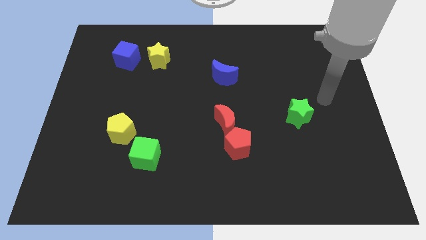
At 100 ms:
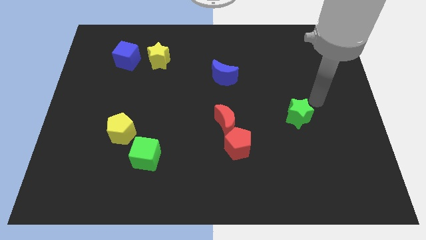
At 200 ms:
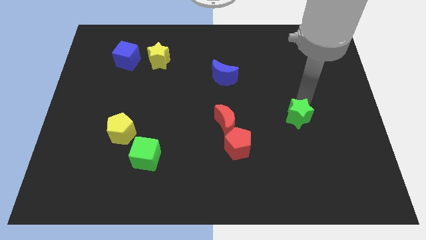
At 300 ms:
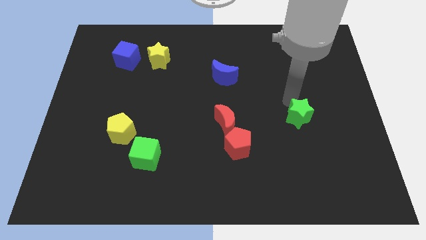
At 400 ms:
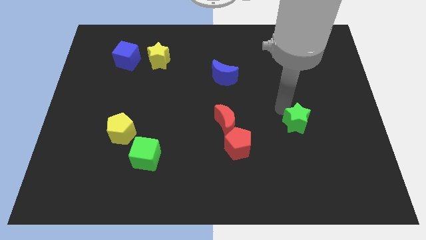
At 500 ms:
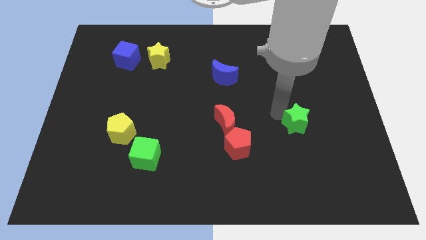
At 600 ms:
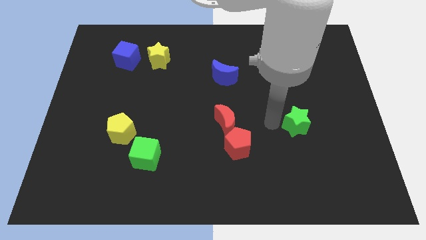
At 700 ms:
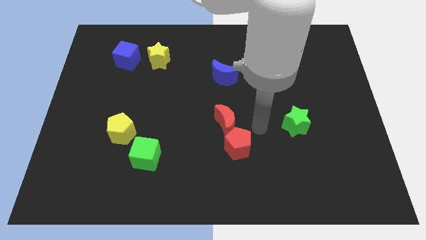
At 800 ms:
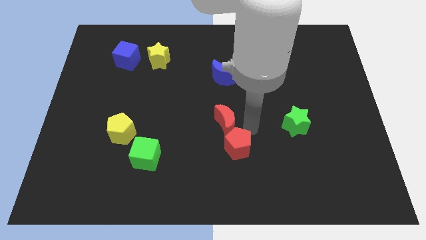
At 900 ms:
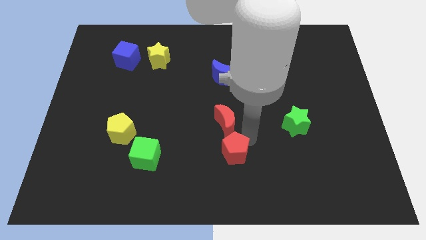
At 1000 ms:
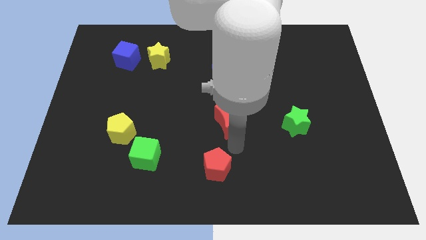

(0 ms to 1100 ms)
move the red moon away from the red pentagon

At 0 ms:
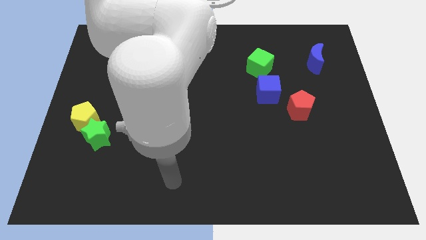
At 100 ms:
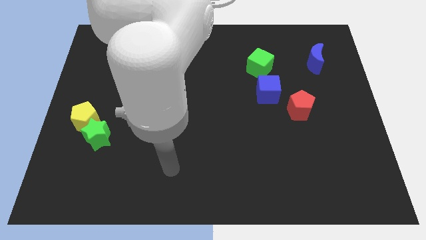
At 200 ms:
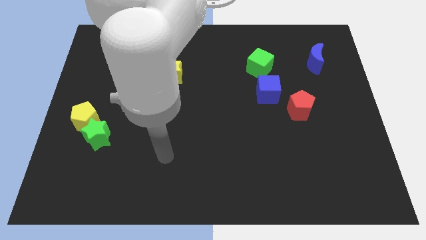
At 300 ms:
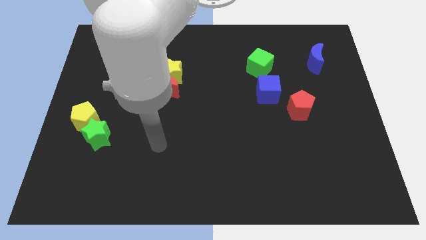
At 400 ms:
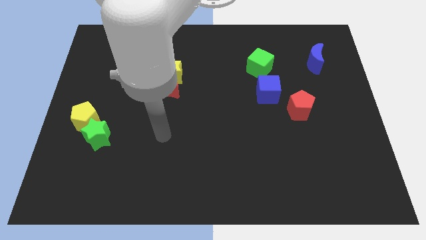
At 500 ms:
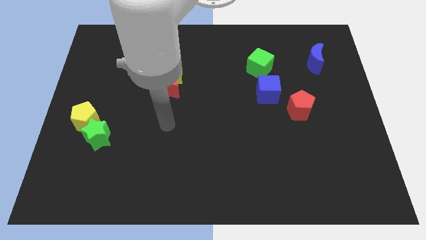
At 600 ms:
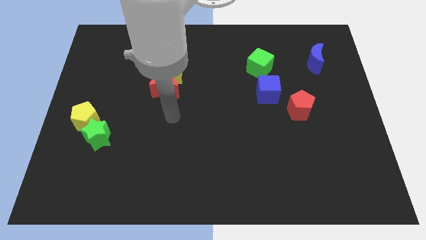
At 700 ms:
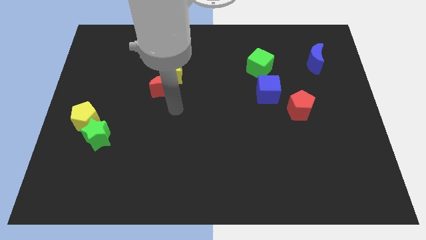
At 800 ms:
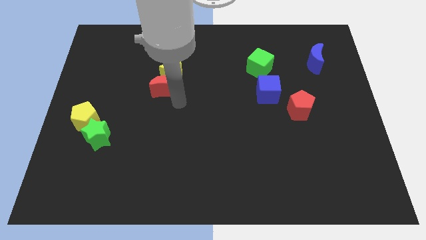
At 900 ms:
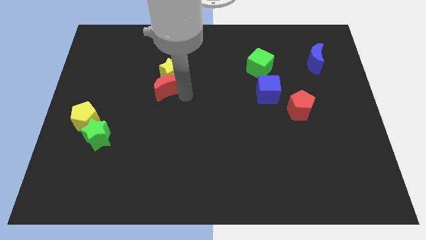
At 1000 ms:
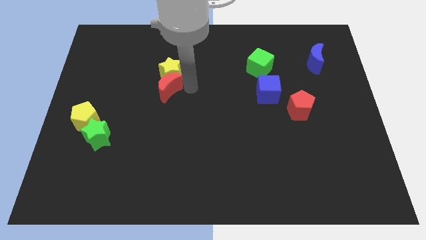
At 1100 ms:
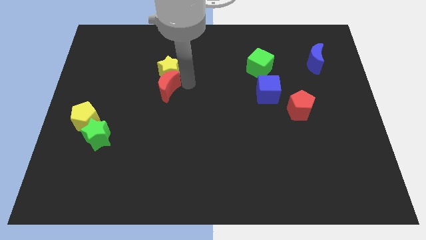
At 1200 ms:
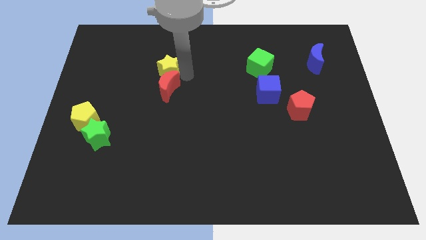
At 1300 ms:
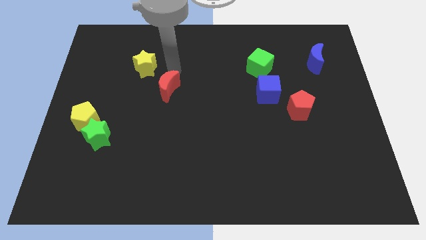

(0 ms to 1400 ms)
move the red moon away from the yellow star

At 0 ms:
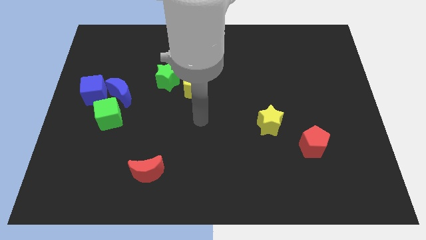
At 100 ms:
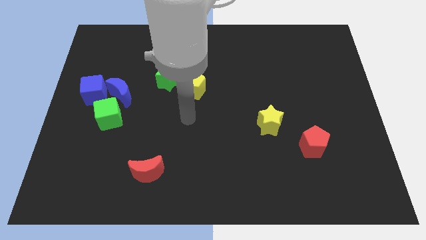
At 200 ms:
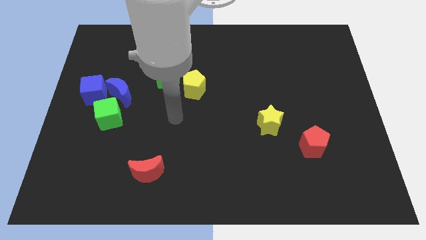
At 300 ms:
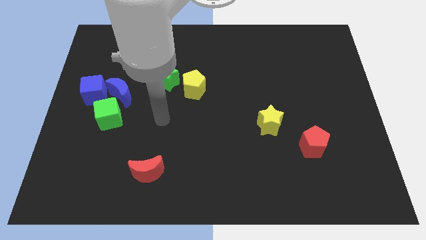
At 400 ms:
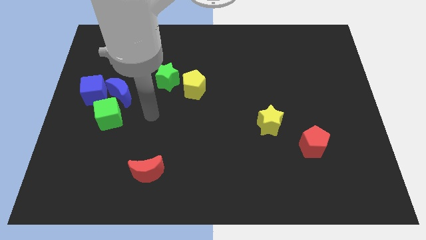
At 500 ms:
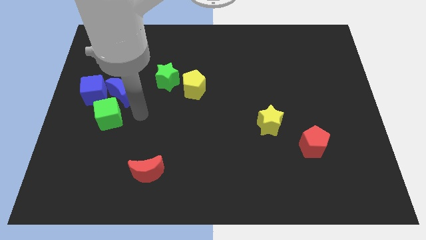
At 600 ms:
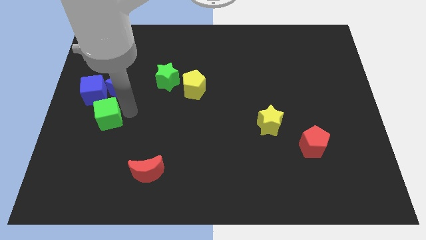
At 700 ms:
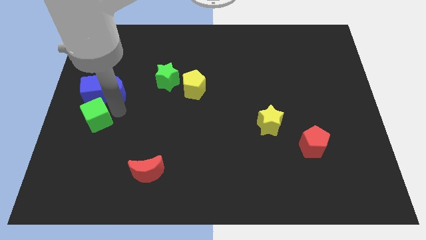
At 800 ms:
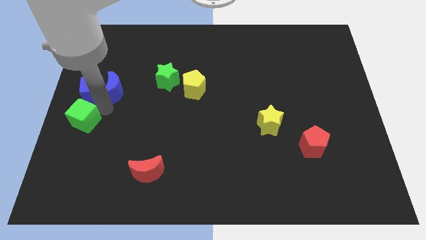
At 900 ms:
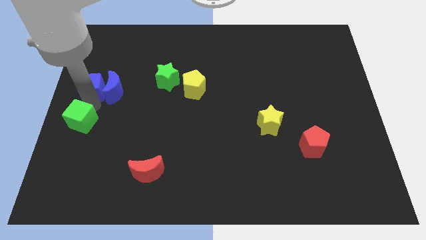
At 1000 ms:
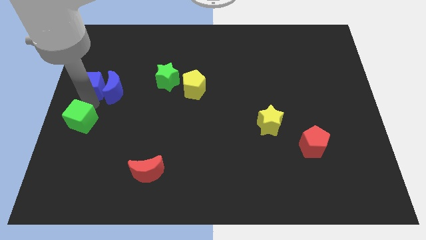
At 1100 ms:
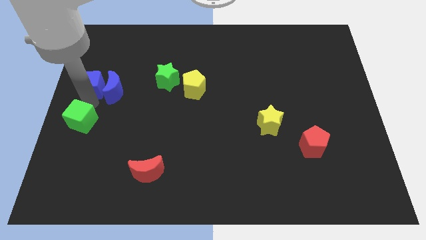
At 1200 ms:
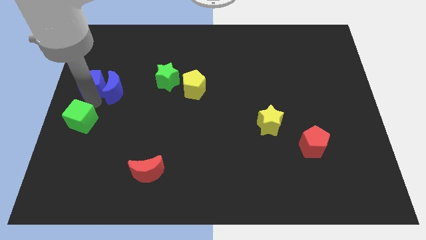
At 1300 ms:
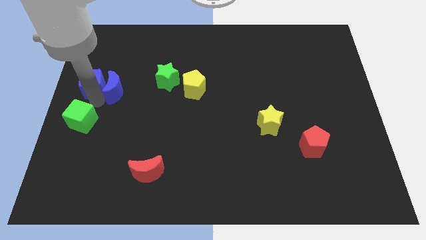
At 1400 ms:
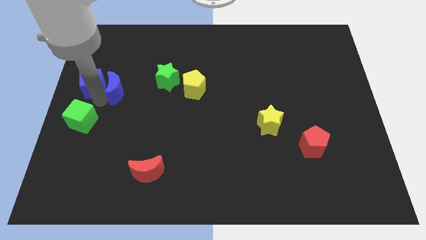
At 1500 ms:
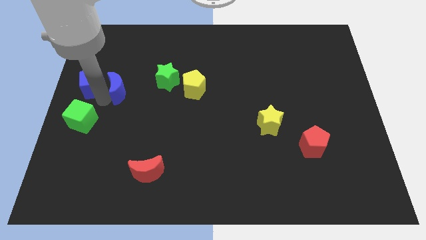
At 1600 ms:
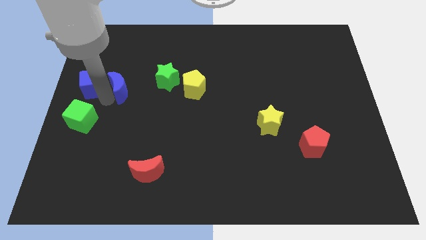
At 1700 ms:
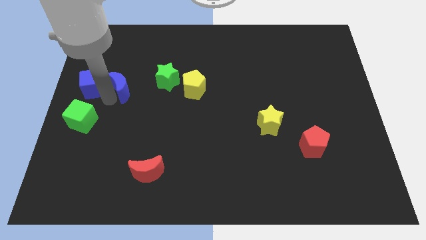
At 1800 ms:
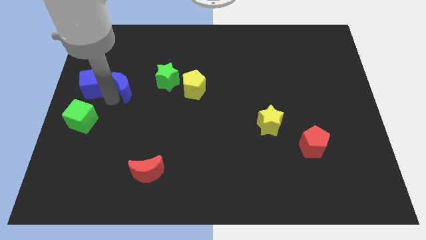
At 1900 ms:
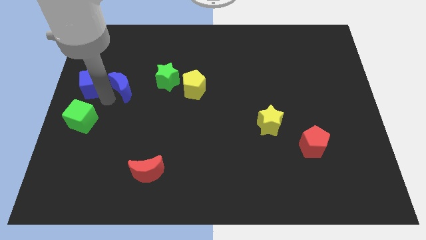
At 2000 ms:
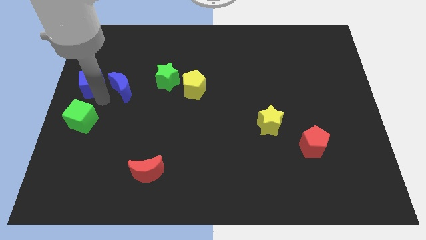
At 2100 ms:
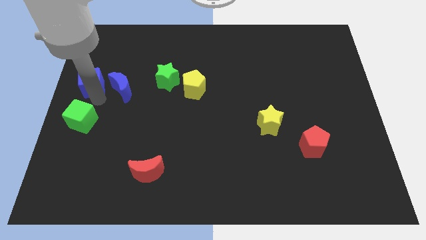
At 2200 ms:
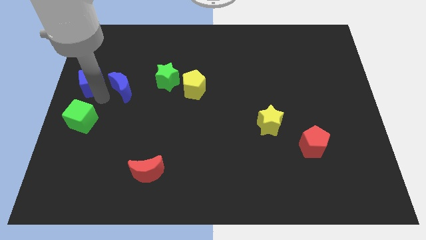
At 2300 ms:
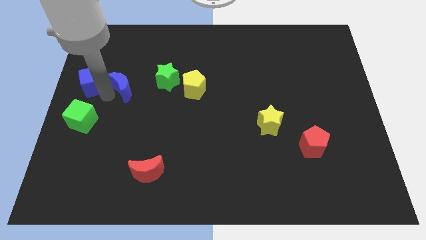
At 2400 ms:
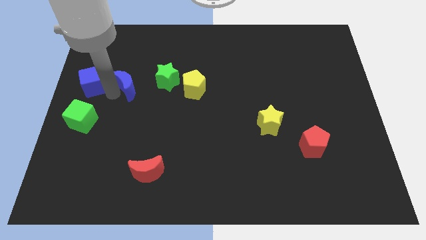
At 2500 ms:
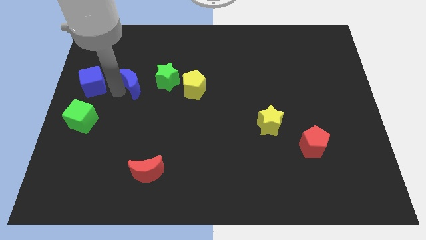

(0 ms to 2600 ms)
move the blue moon away from the blue cube and green cube

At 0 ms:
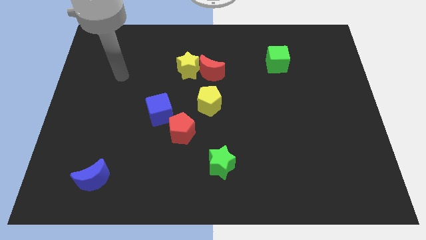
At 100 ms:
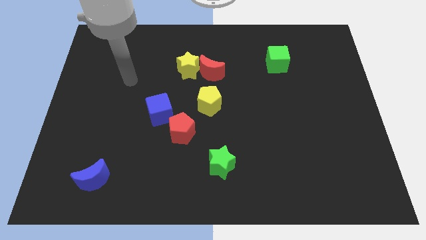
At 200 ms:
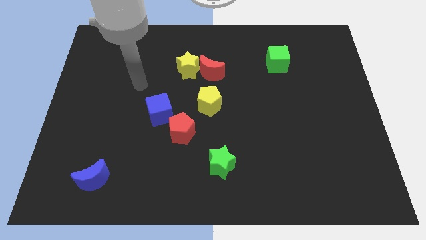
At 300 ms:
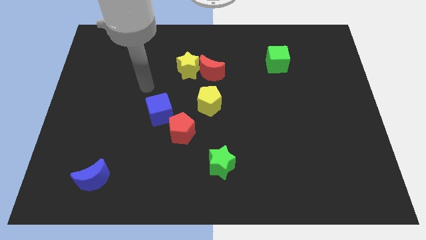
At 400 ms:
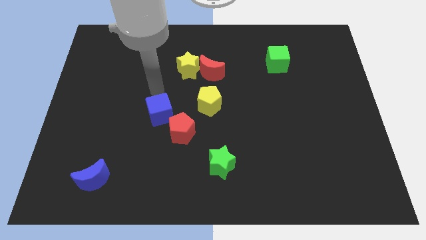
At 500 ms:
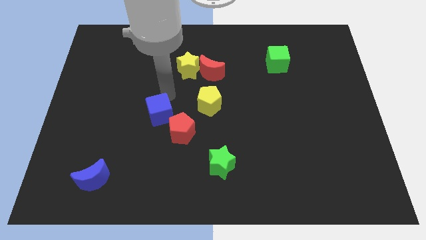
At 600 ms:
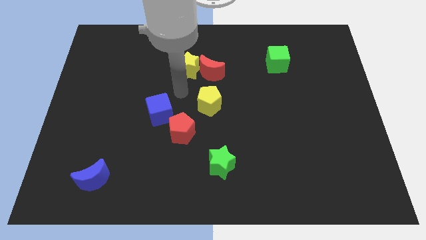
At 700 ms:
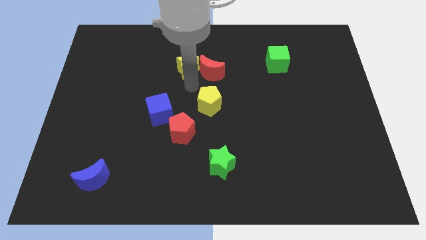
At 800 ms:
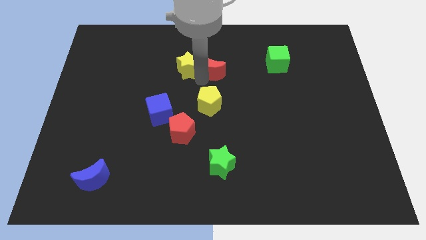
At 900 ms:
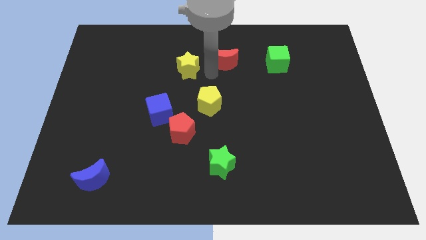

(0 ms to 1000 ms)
separate the yellow star from the red moon

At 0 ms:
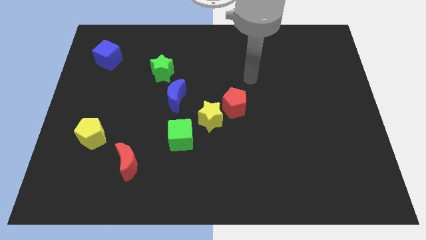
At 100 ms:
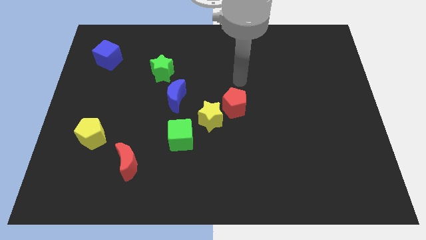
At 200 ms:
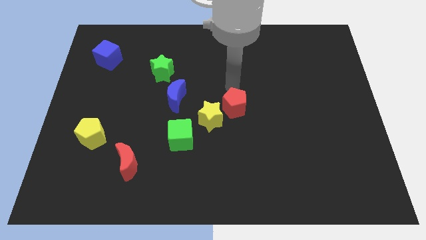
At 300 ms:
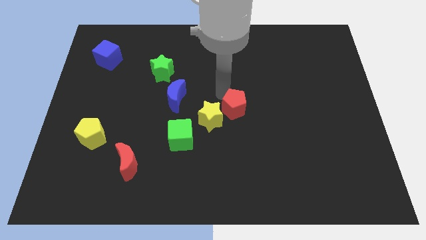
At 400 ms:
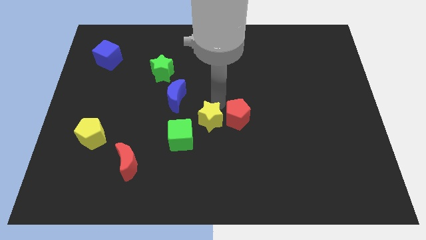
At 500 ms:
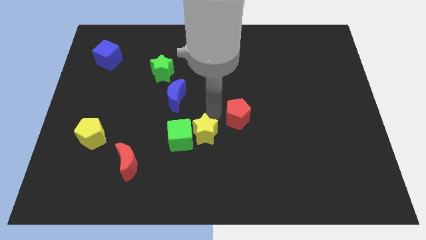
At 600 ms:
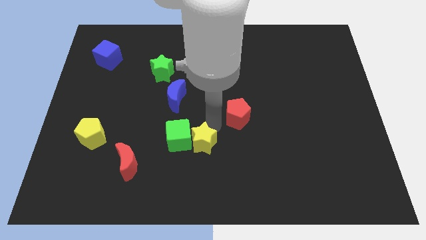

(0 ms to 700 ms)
pull the red pentagon apart from the yellow star

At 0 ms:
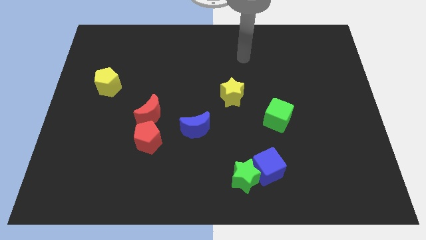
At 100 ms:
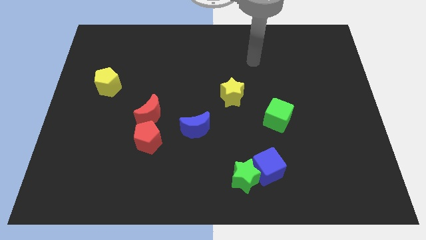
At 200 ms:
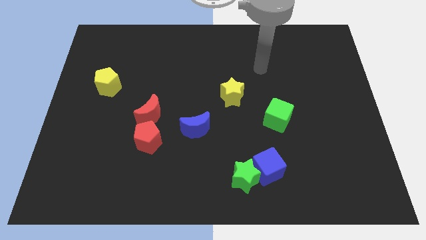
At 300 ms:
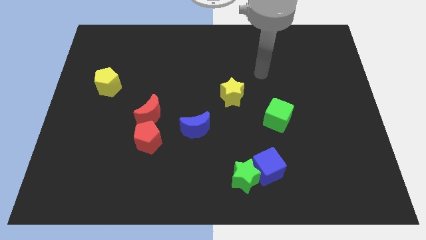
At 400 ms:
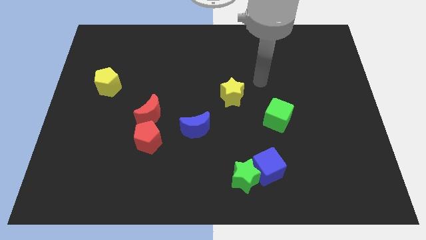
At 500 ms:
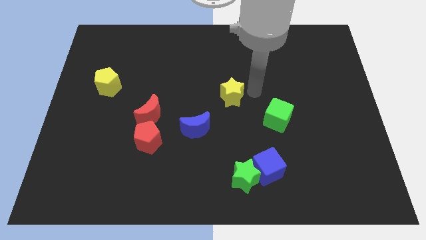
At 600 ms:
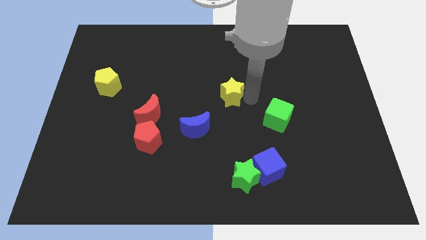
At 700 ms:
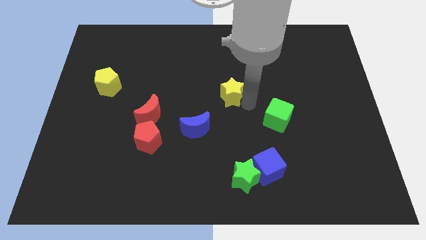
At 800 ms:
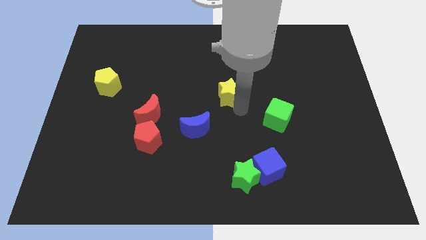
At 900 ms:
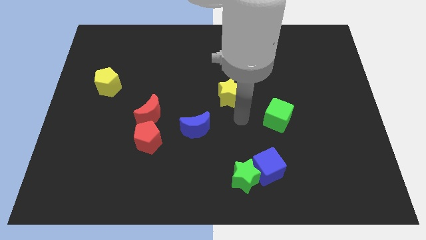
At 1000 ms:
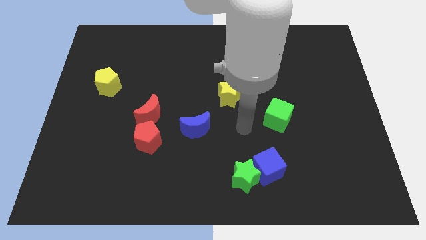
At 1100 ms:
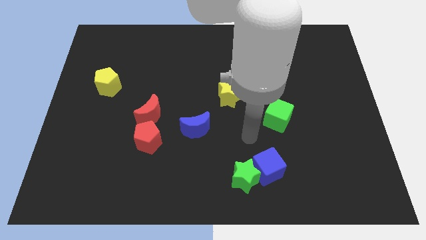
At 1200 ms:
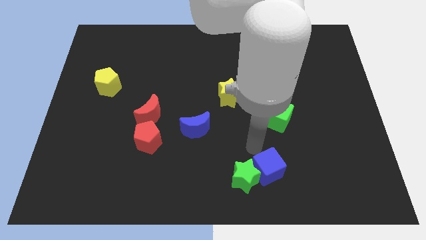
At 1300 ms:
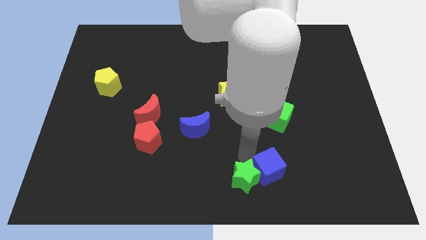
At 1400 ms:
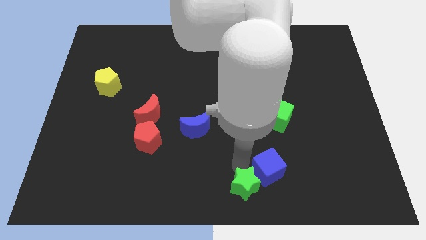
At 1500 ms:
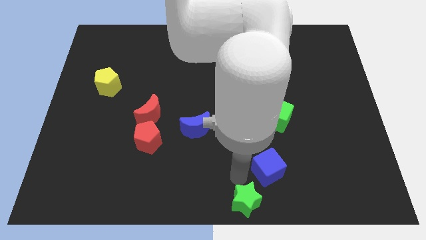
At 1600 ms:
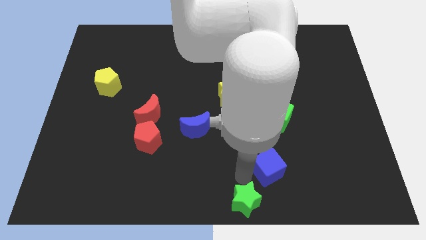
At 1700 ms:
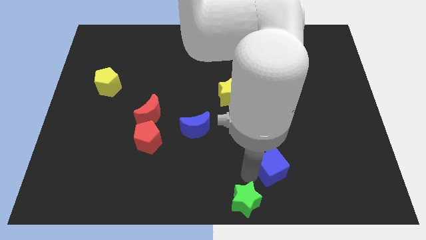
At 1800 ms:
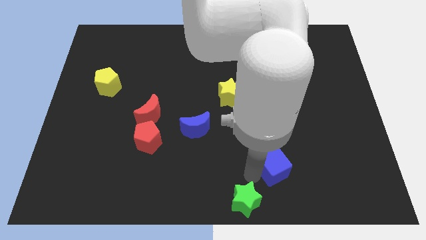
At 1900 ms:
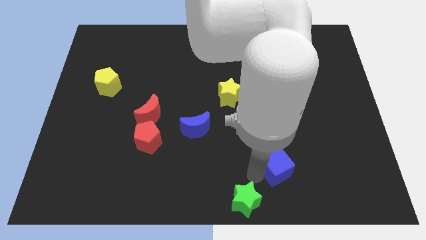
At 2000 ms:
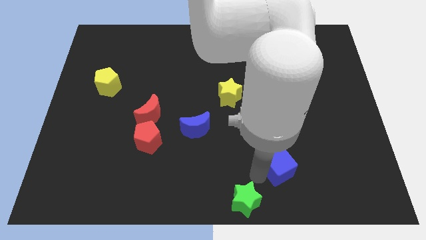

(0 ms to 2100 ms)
pull the blue cube apart from the green star

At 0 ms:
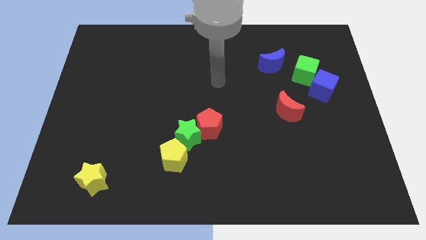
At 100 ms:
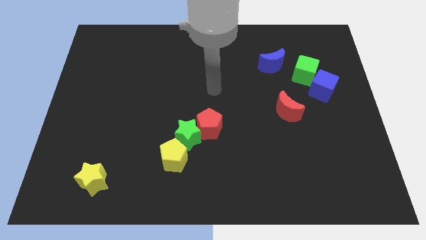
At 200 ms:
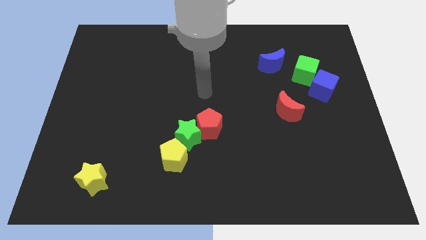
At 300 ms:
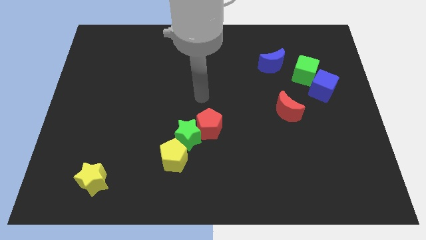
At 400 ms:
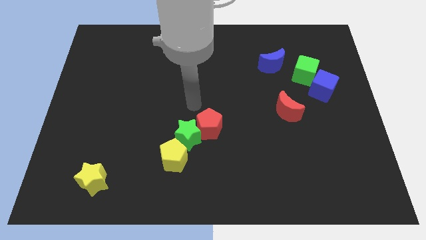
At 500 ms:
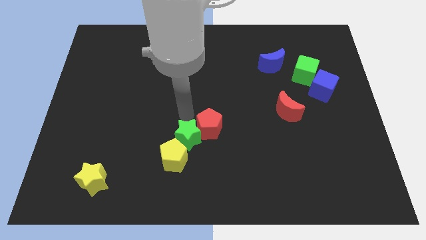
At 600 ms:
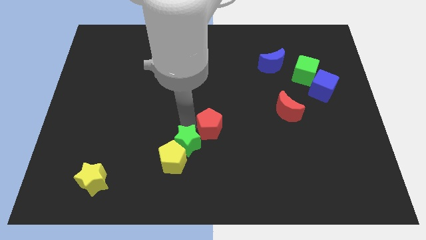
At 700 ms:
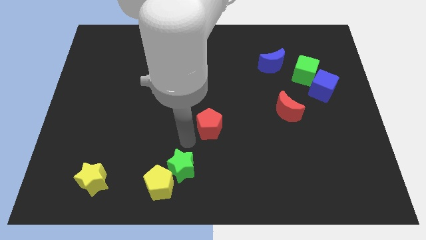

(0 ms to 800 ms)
pull the red pentagon apart from the green star
